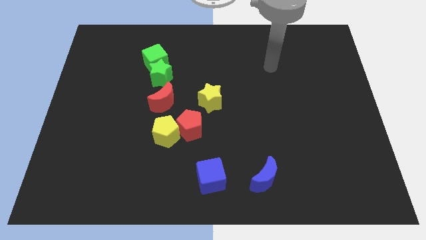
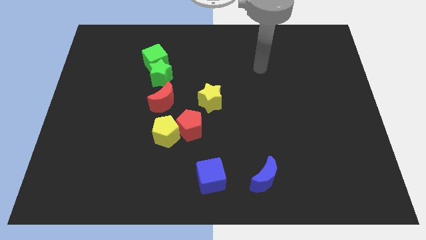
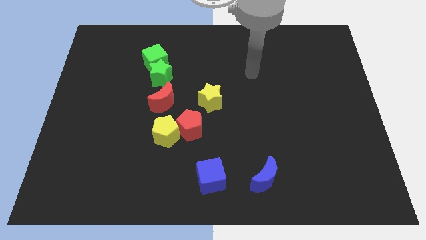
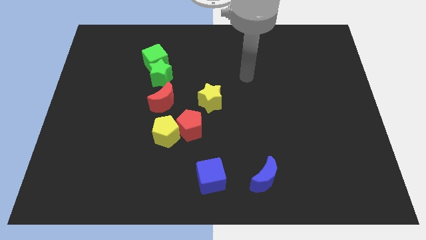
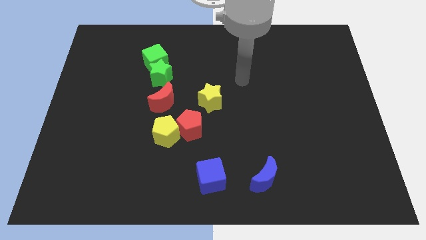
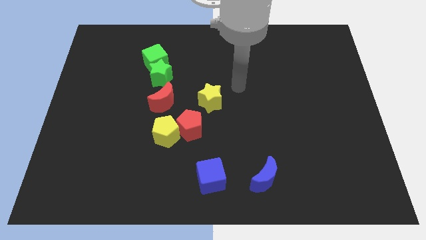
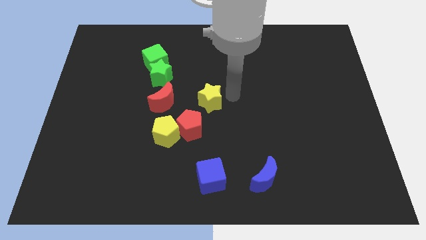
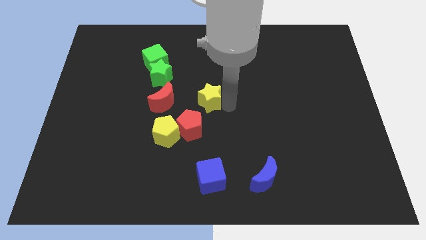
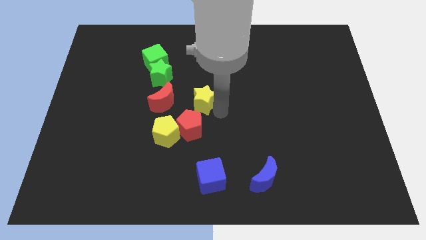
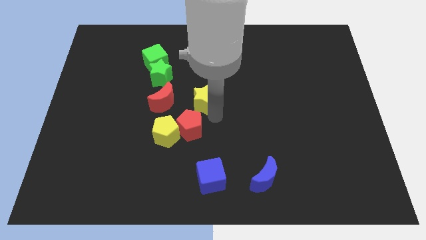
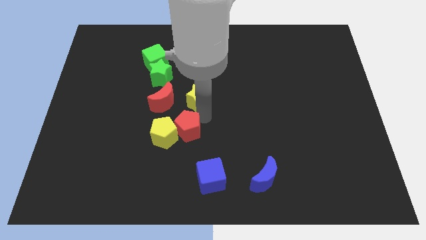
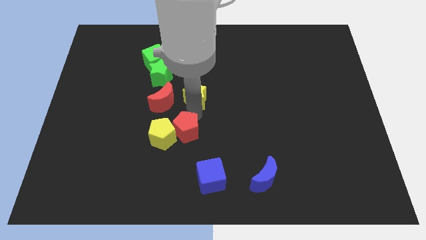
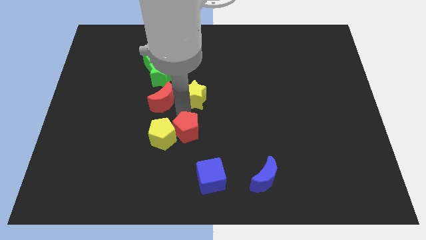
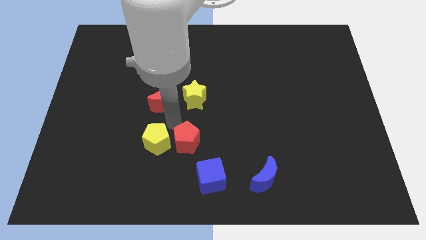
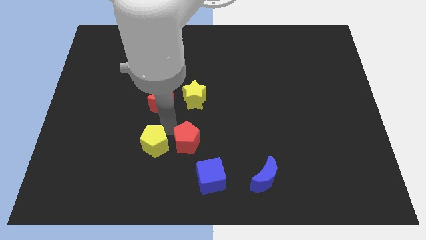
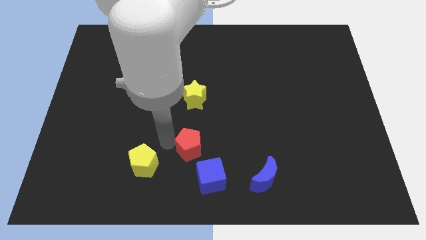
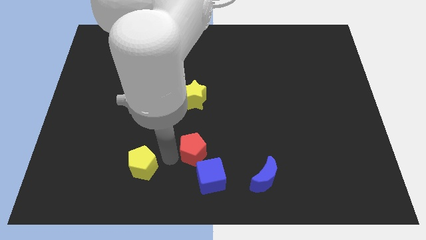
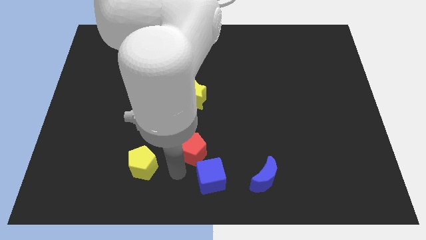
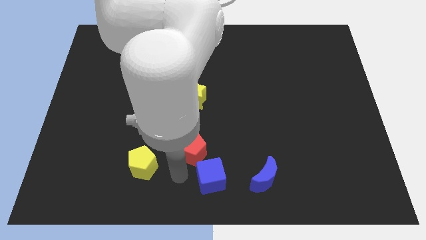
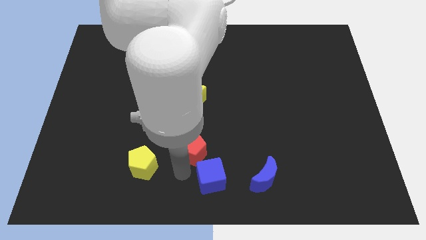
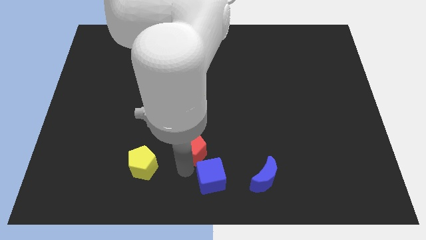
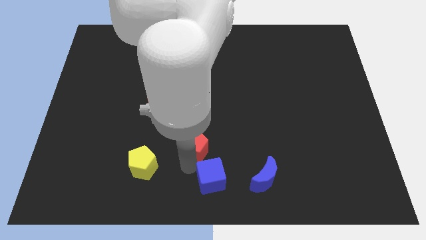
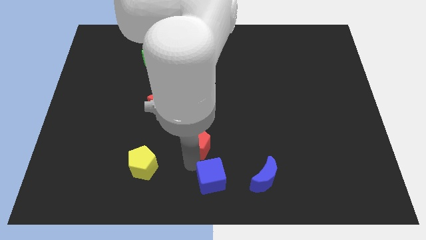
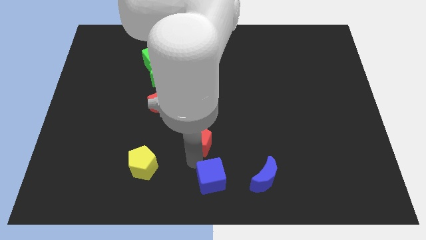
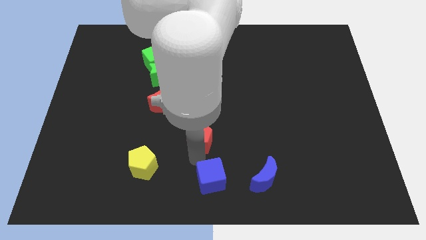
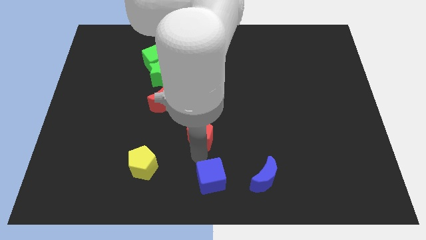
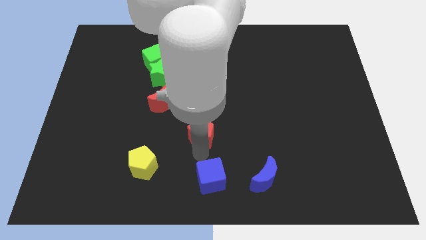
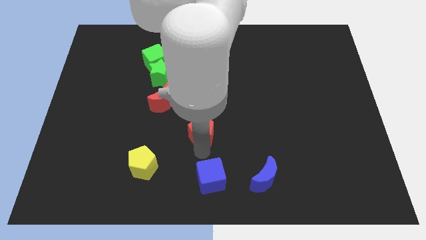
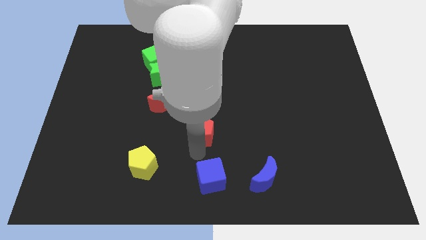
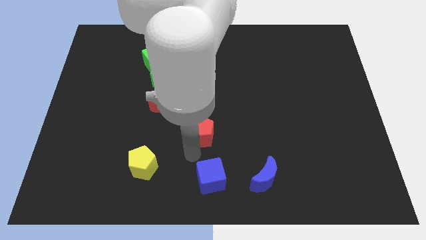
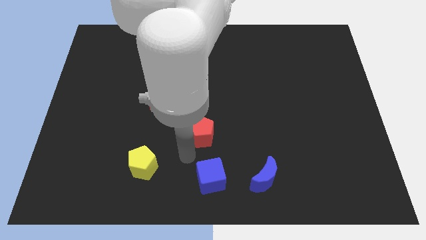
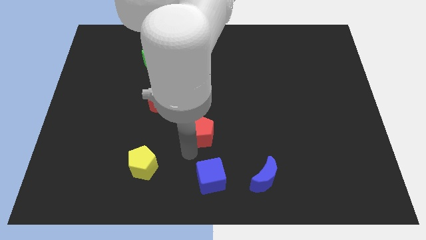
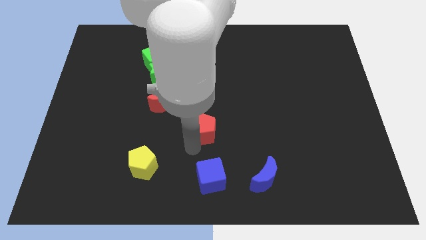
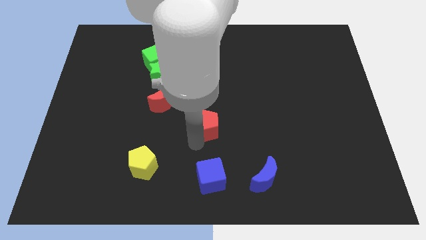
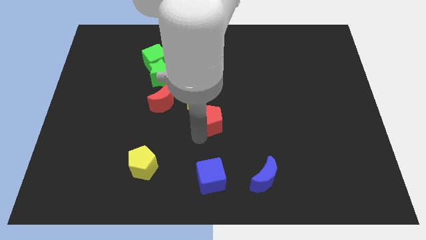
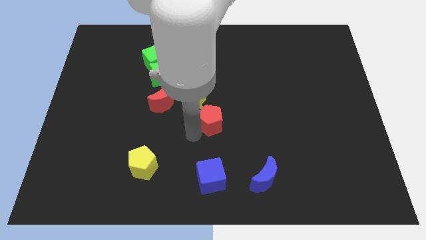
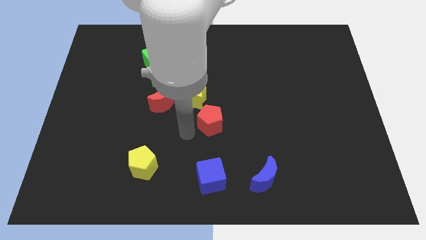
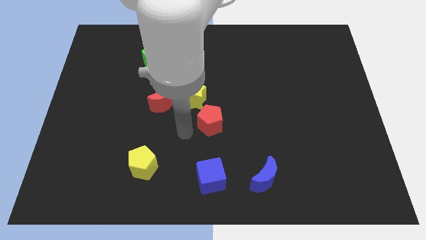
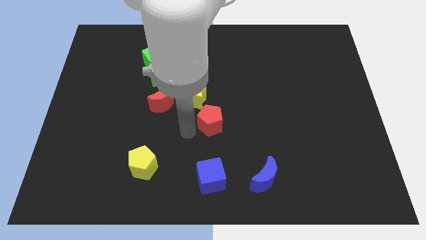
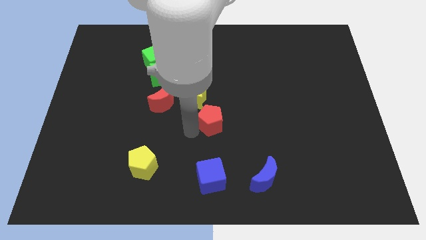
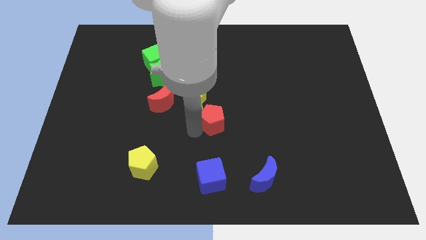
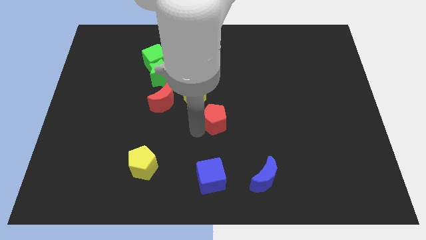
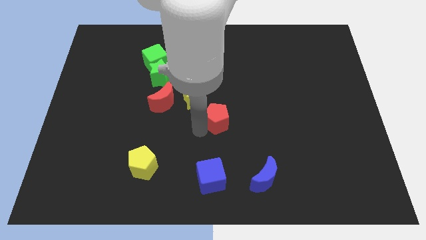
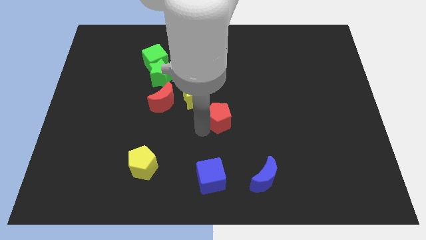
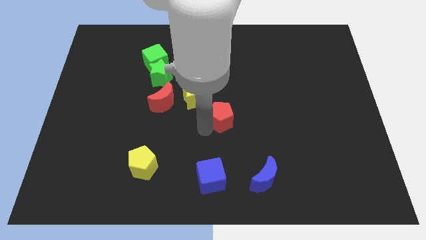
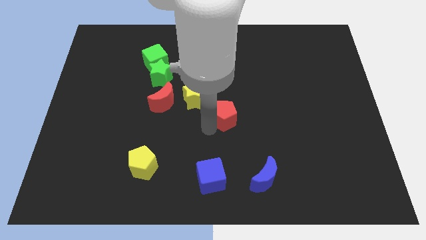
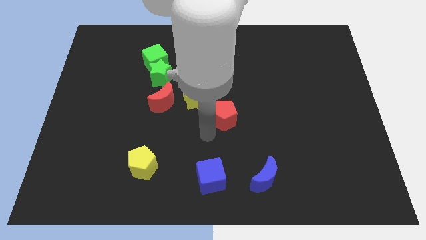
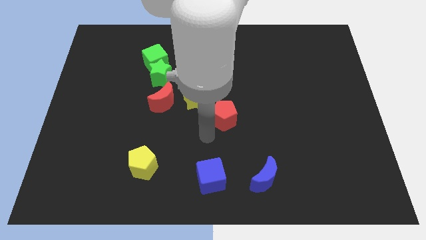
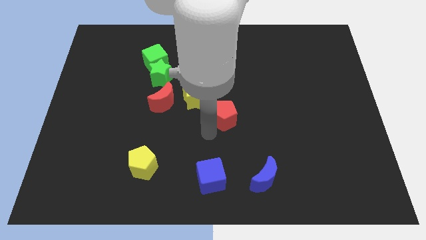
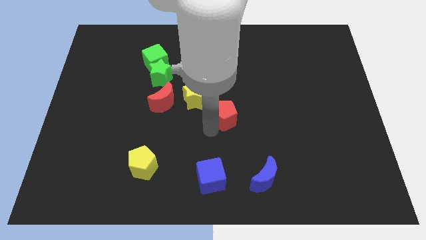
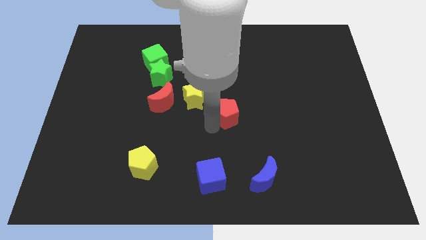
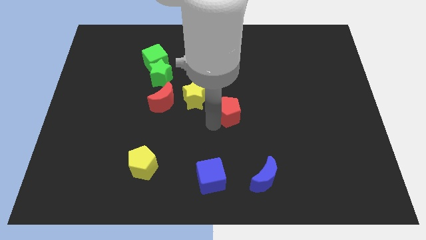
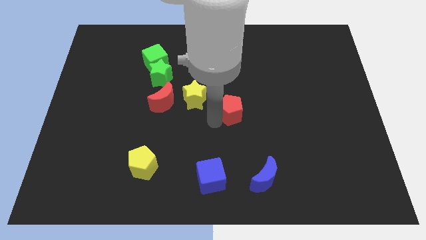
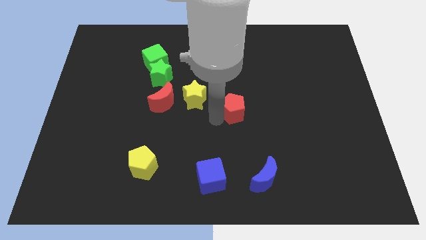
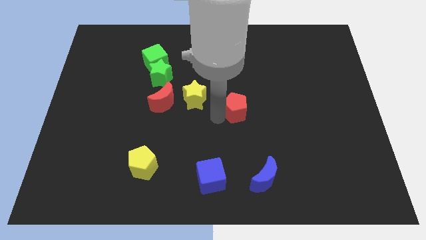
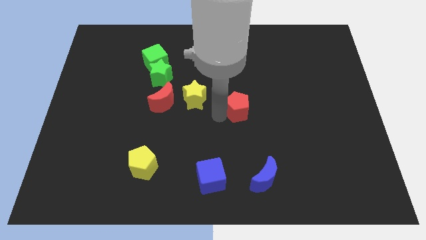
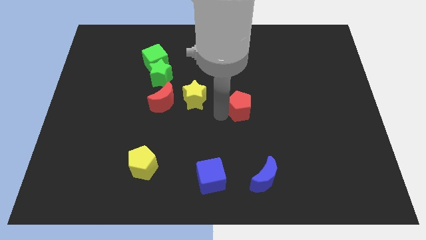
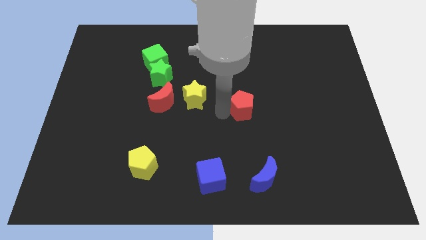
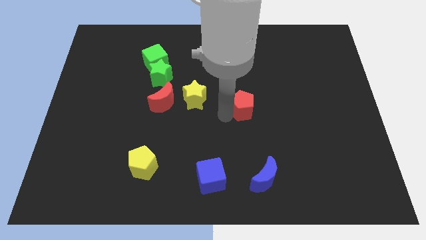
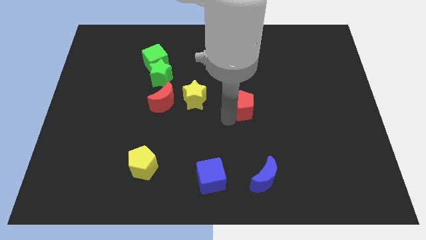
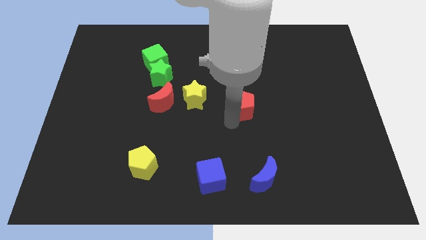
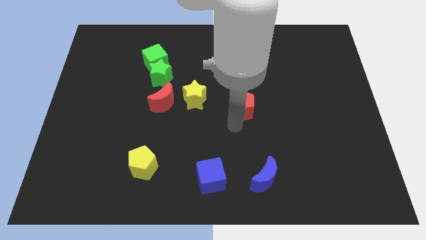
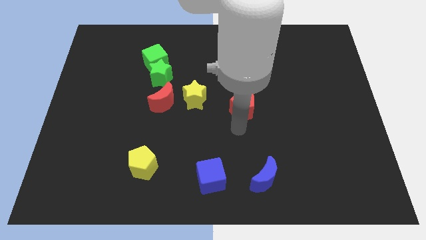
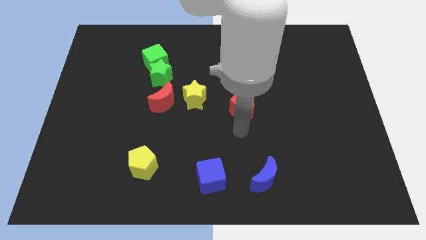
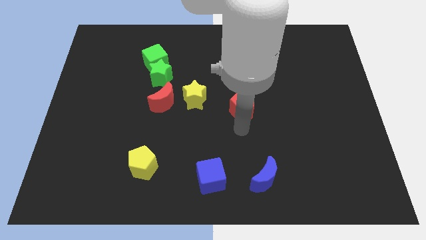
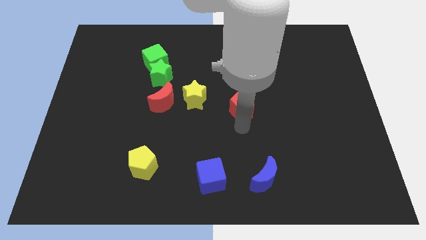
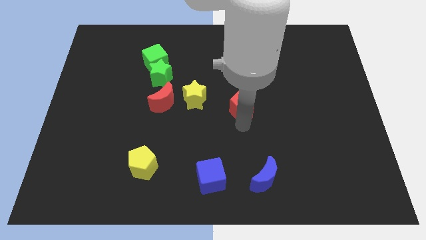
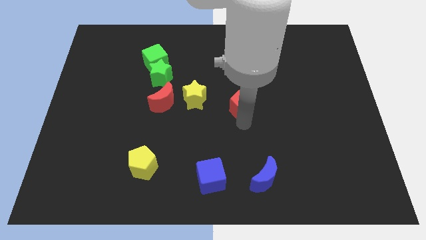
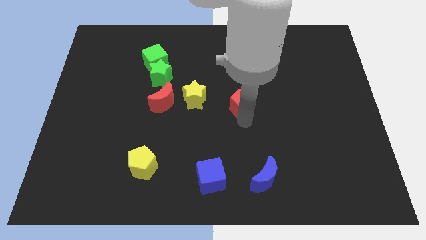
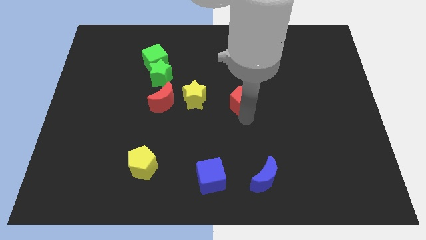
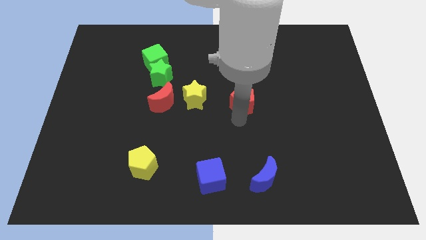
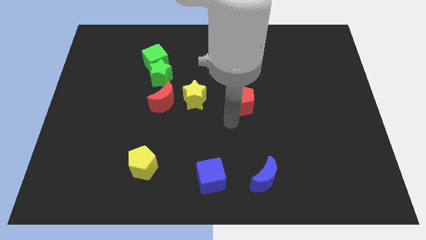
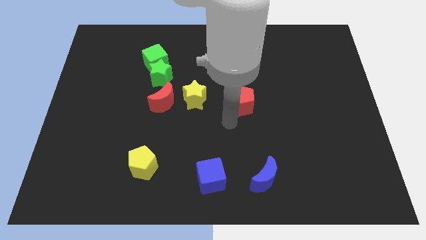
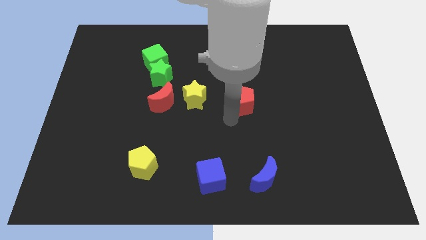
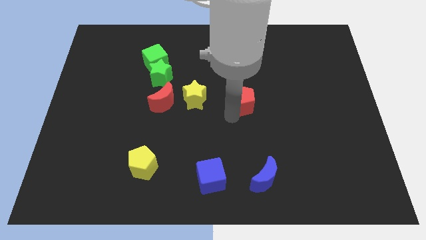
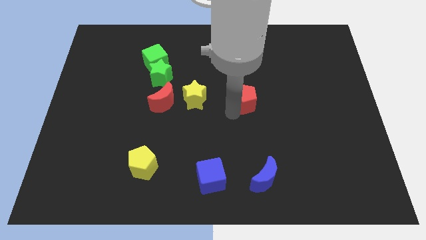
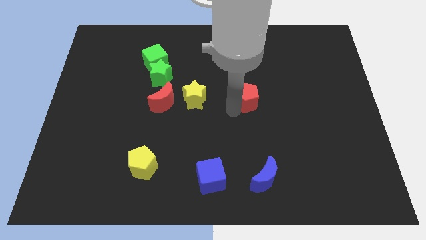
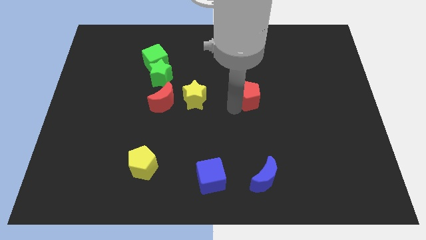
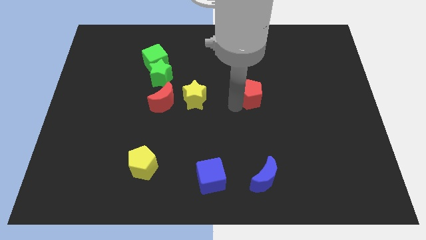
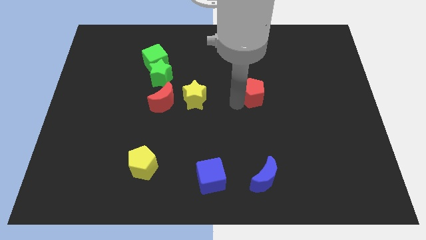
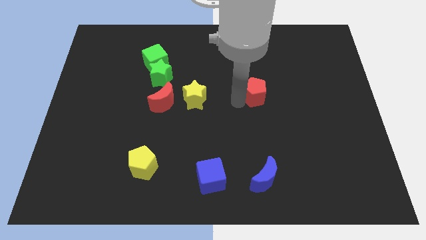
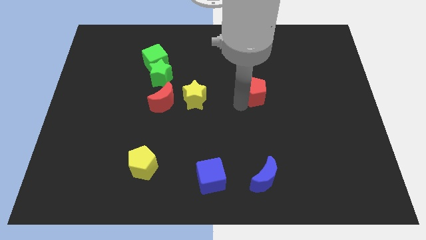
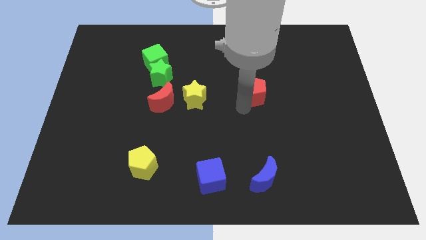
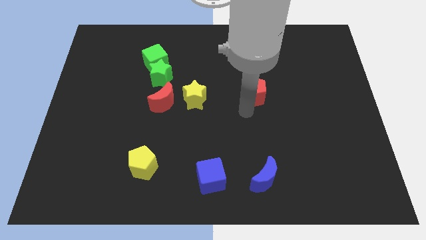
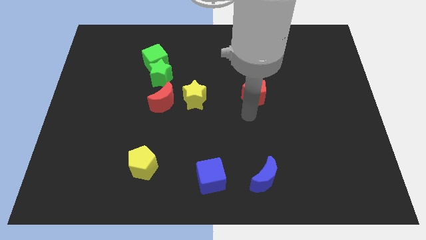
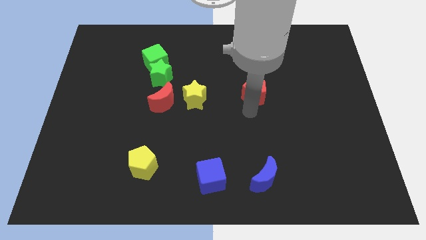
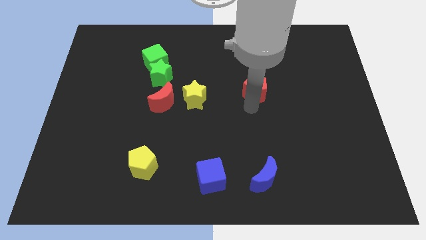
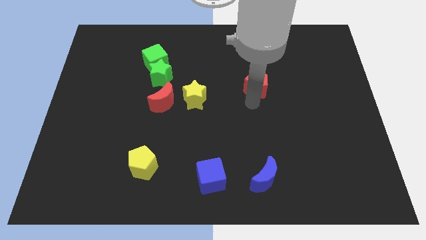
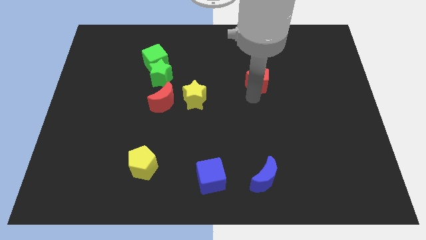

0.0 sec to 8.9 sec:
move the red pentagon up and right diagonally
